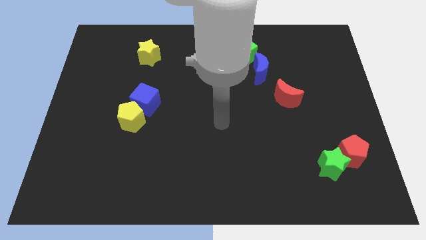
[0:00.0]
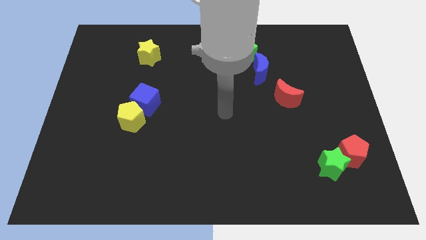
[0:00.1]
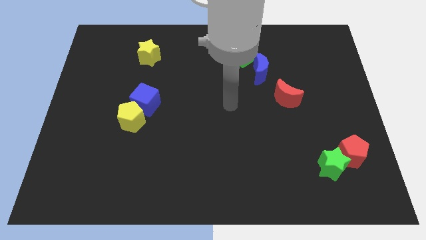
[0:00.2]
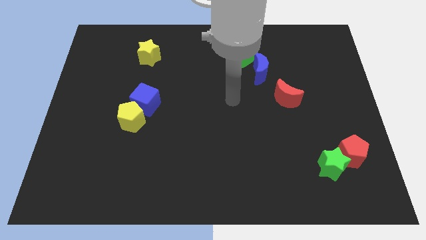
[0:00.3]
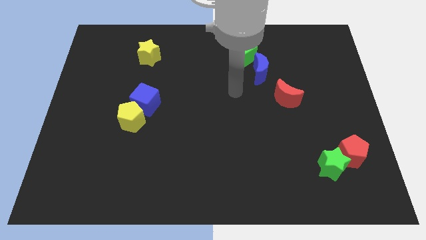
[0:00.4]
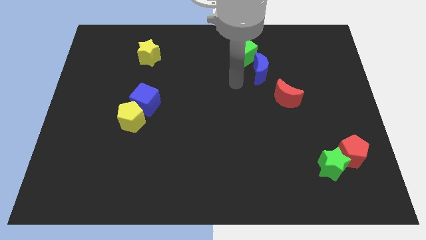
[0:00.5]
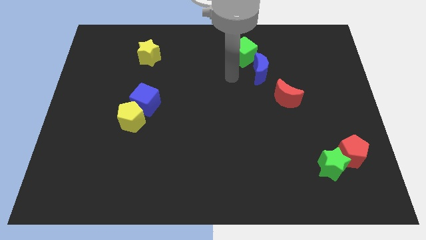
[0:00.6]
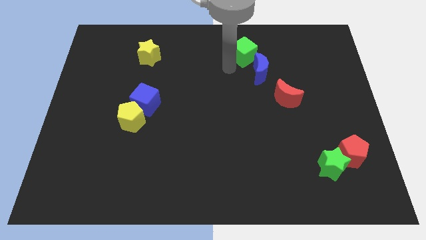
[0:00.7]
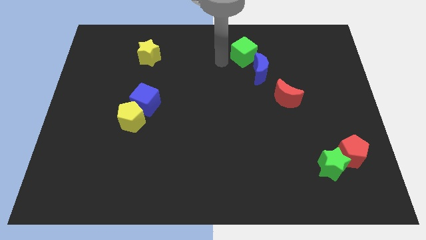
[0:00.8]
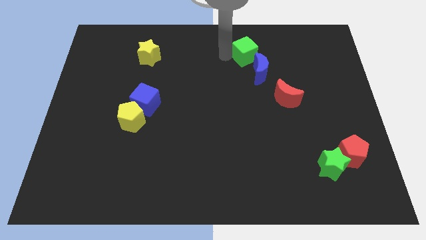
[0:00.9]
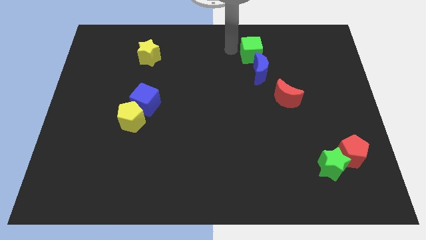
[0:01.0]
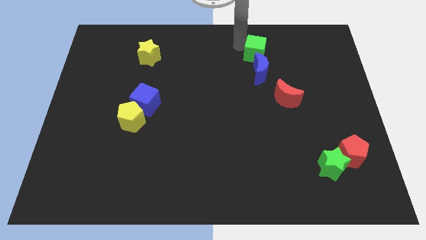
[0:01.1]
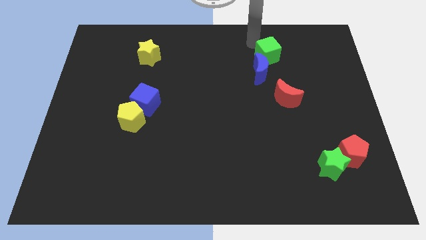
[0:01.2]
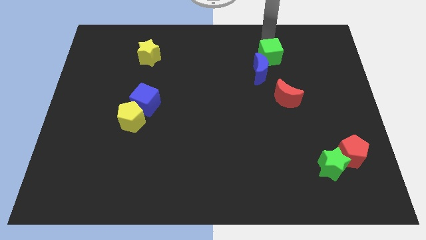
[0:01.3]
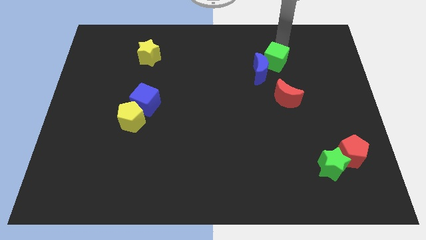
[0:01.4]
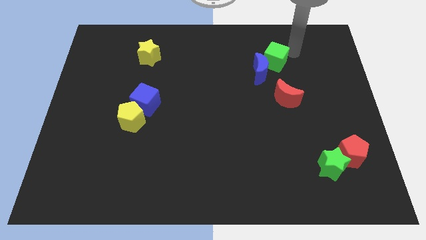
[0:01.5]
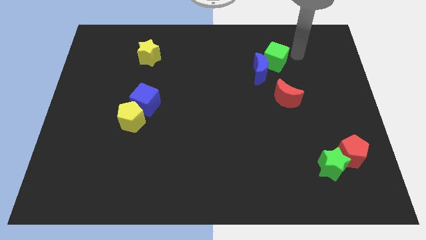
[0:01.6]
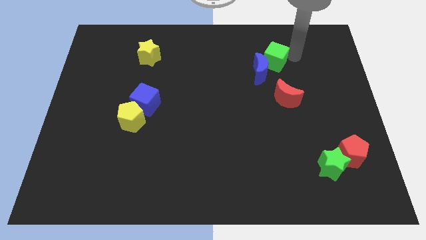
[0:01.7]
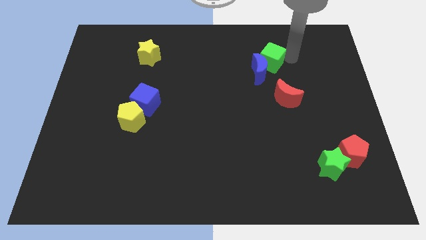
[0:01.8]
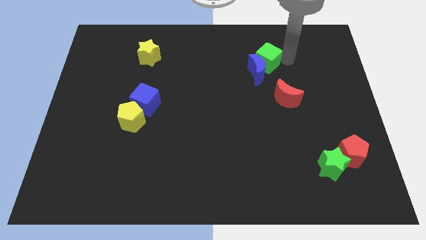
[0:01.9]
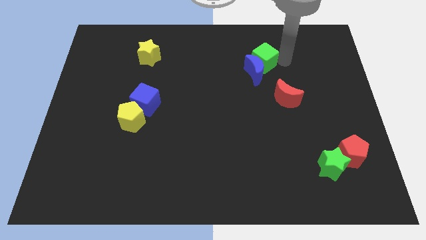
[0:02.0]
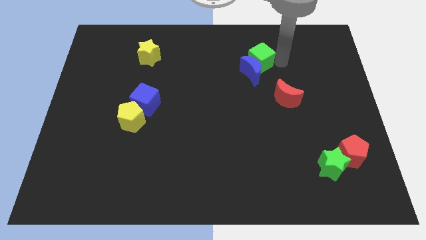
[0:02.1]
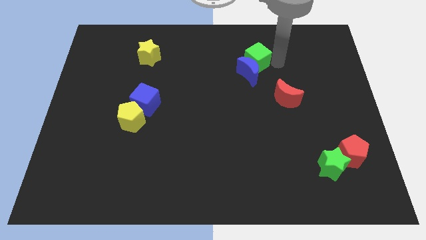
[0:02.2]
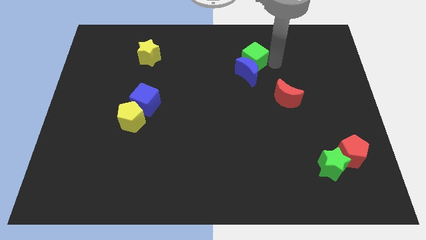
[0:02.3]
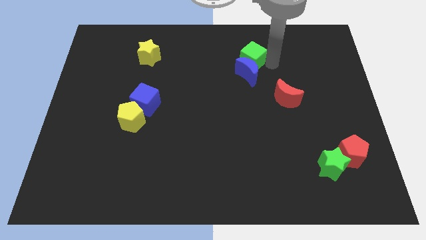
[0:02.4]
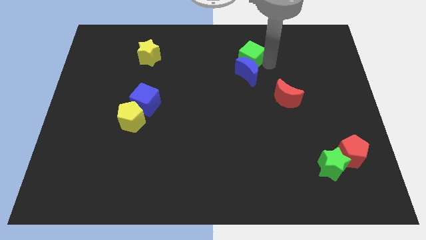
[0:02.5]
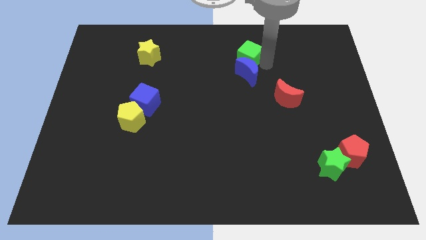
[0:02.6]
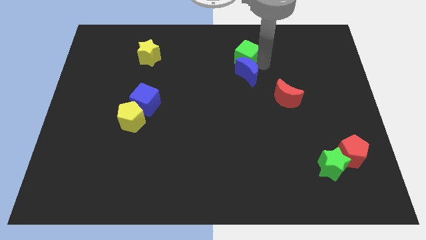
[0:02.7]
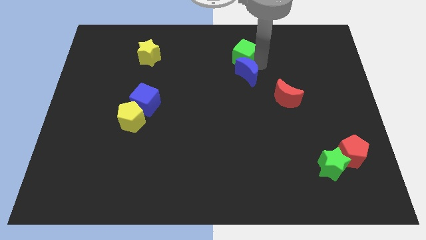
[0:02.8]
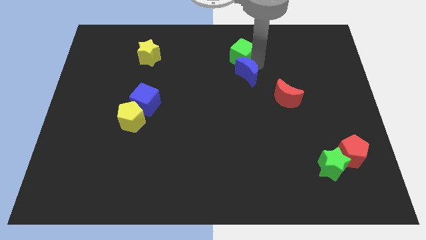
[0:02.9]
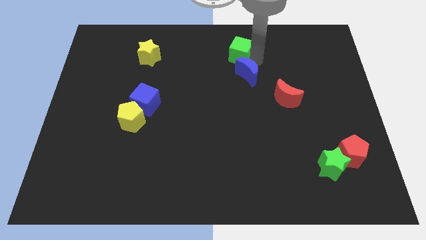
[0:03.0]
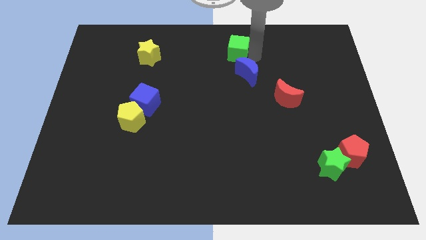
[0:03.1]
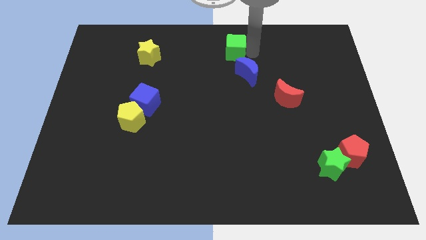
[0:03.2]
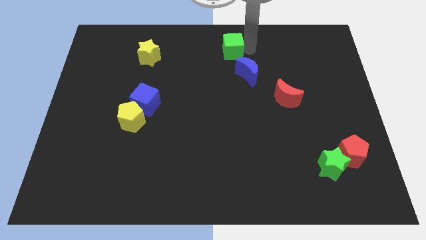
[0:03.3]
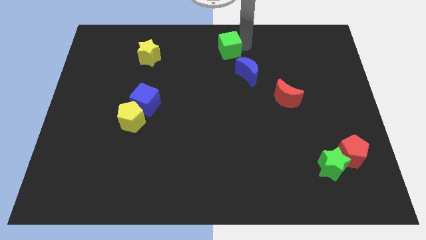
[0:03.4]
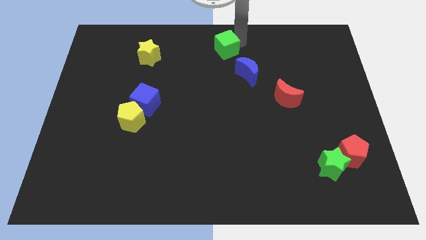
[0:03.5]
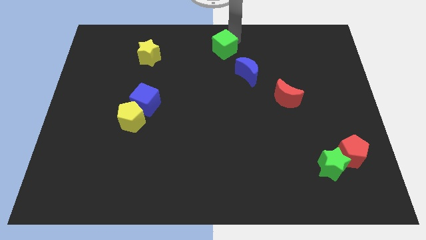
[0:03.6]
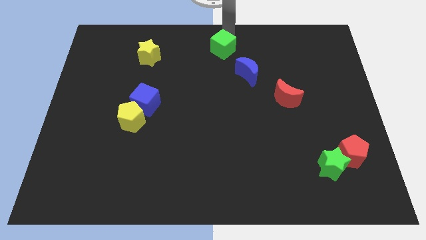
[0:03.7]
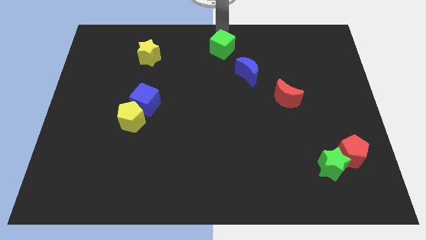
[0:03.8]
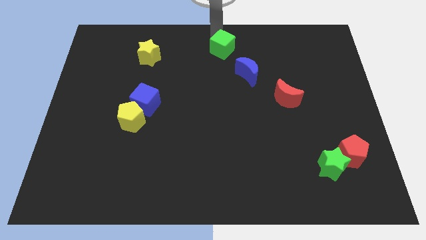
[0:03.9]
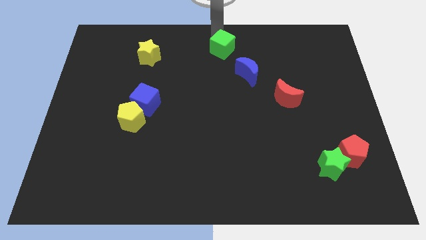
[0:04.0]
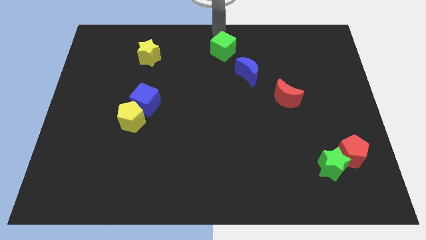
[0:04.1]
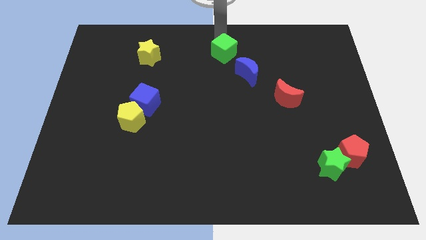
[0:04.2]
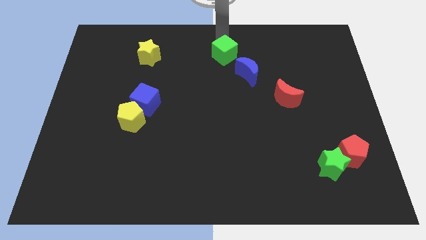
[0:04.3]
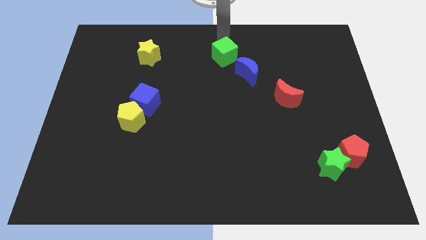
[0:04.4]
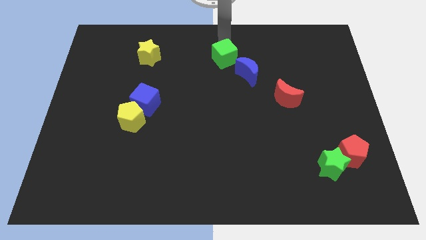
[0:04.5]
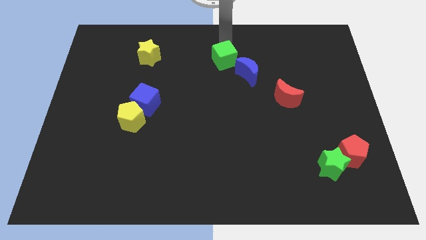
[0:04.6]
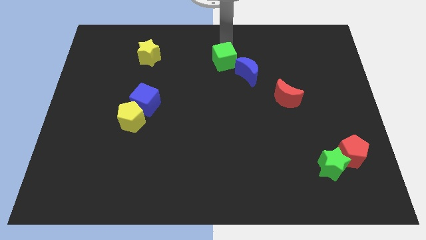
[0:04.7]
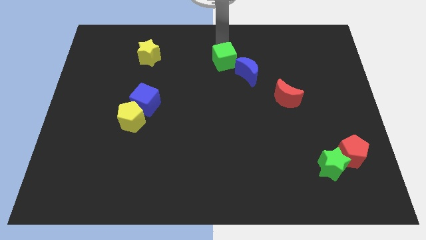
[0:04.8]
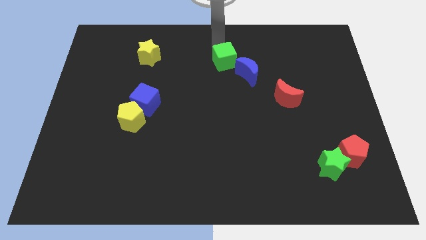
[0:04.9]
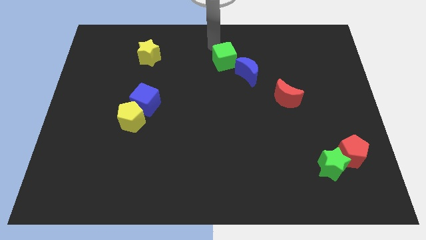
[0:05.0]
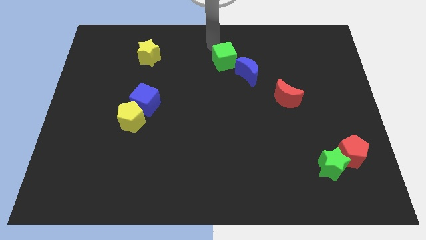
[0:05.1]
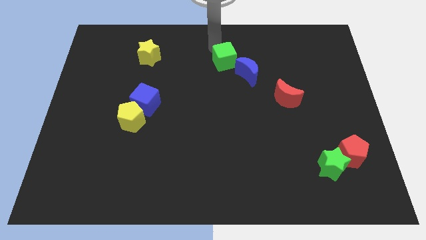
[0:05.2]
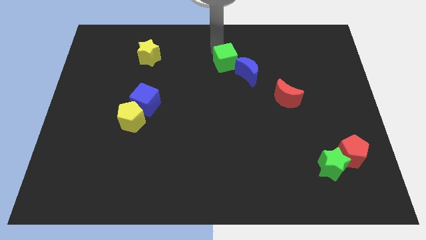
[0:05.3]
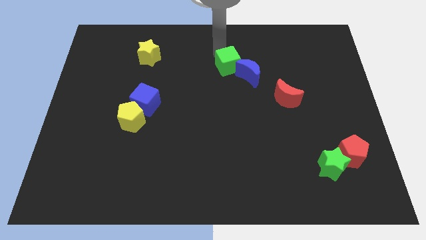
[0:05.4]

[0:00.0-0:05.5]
slide the green cube to the middle of the board

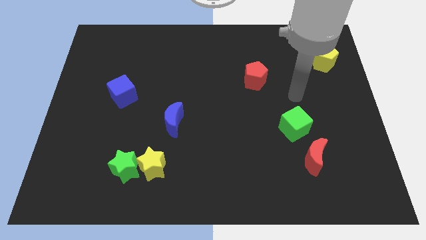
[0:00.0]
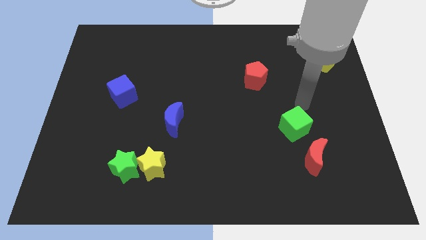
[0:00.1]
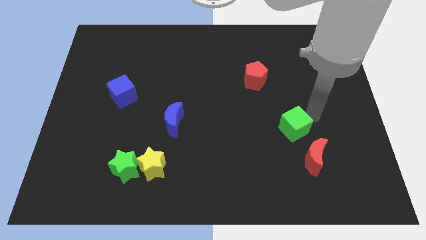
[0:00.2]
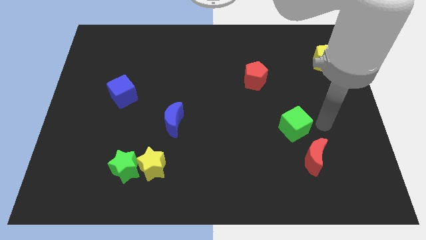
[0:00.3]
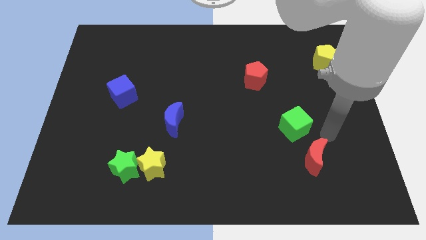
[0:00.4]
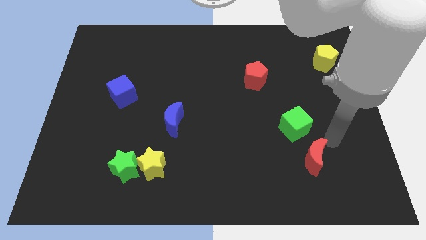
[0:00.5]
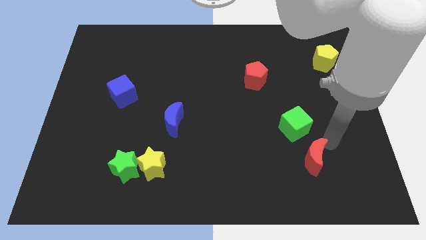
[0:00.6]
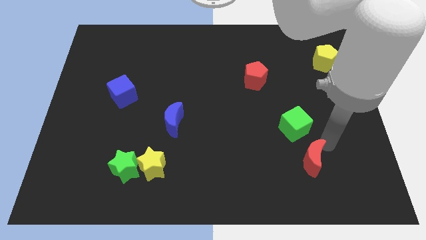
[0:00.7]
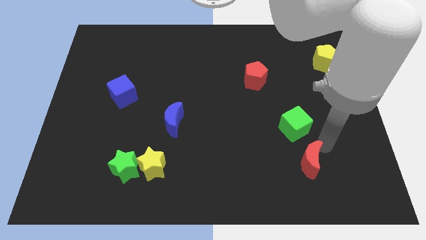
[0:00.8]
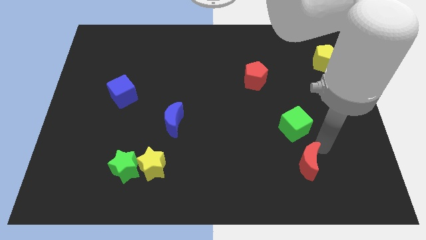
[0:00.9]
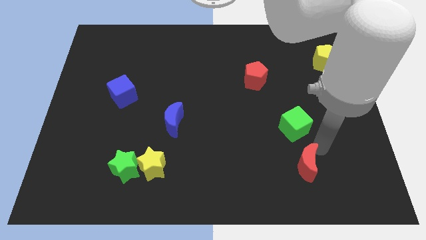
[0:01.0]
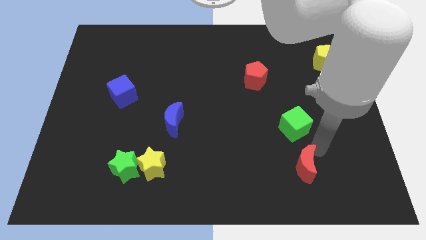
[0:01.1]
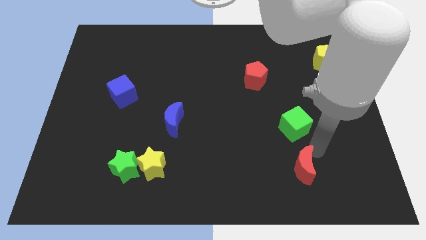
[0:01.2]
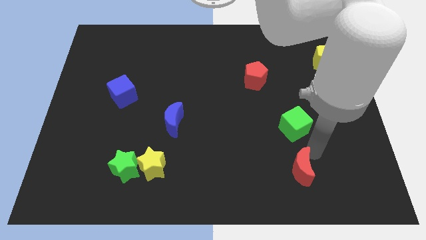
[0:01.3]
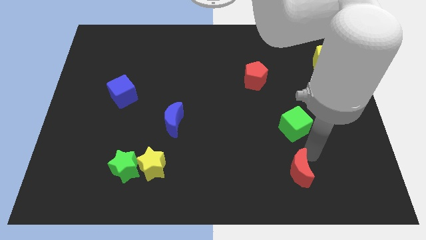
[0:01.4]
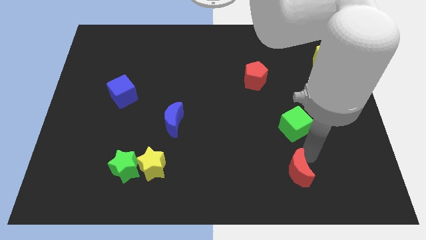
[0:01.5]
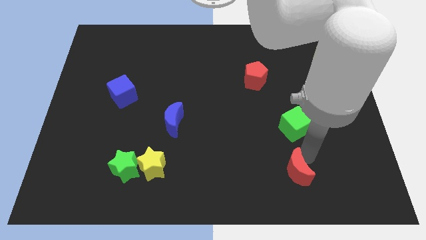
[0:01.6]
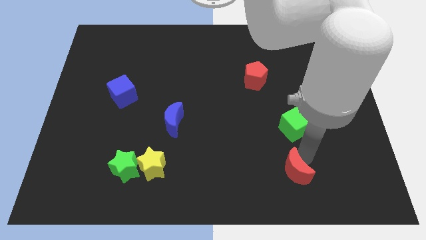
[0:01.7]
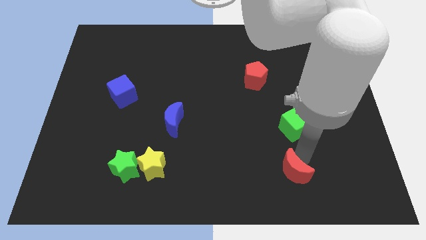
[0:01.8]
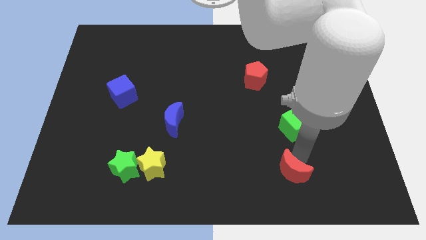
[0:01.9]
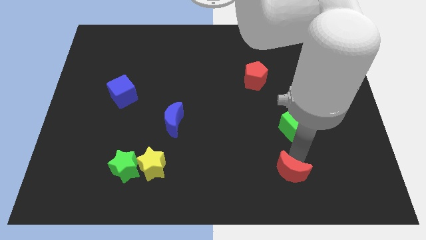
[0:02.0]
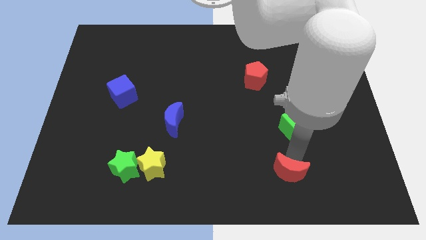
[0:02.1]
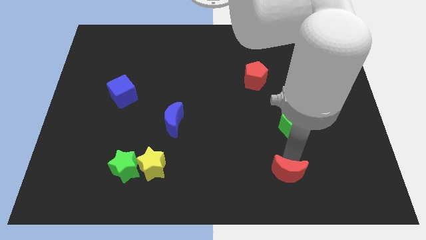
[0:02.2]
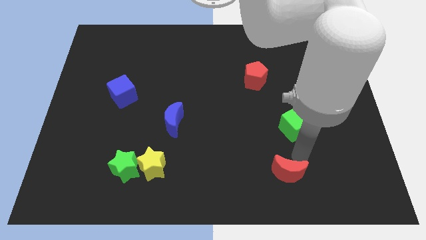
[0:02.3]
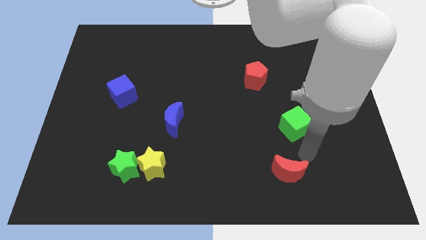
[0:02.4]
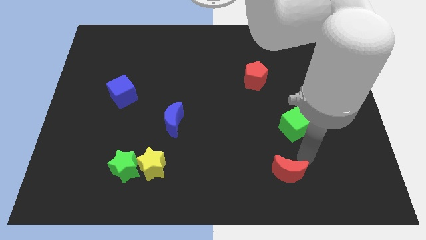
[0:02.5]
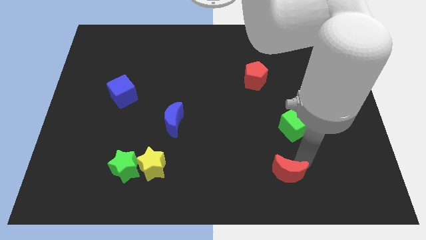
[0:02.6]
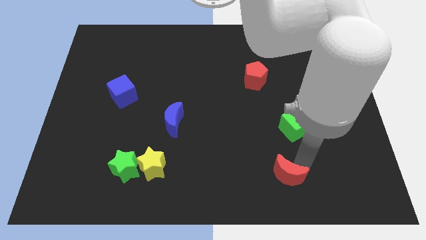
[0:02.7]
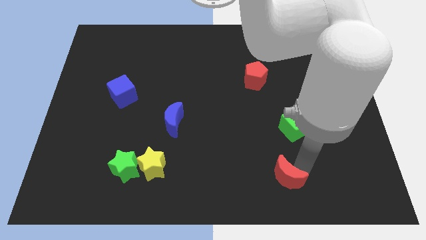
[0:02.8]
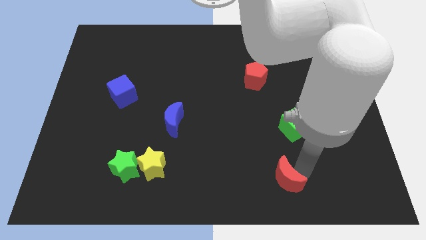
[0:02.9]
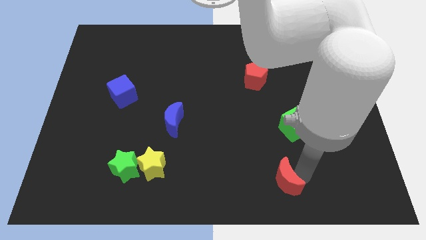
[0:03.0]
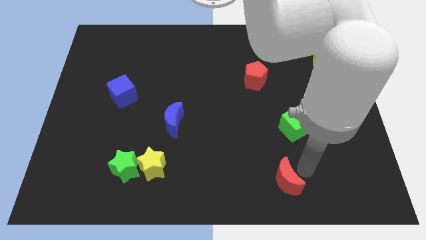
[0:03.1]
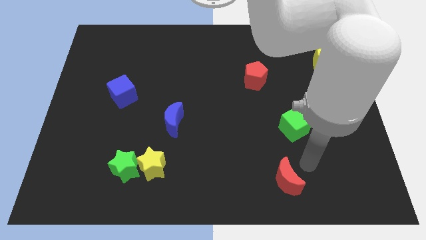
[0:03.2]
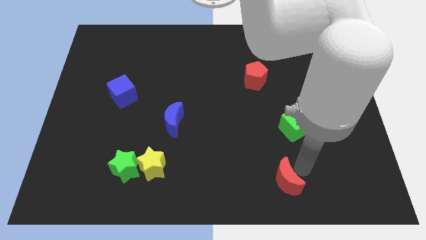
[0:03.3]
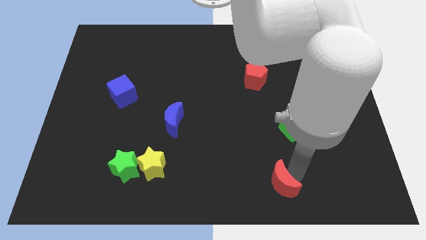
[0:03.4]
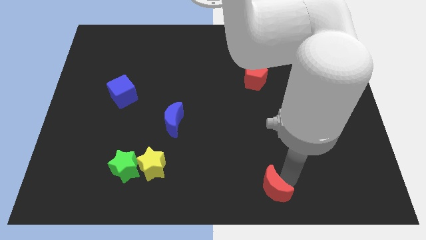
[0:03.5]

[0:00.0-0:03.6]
slide the red moon to the bottom side
